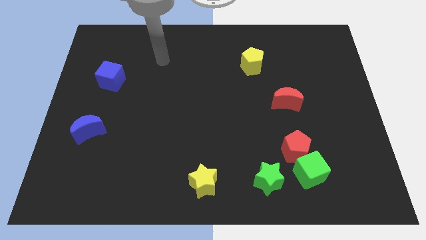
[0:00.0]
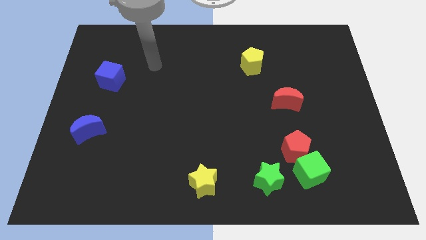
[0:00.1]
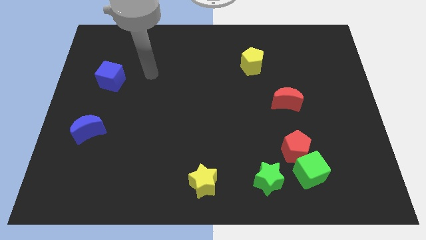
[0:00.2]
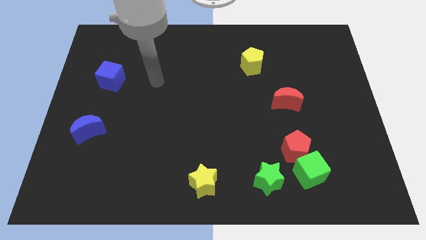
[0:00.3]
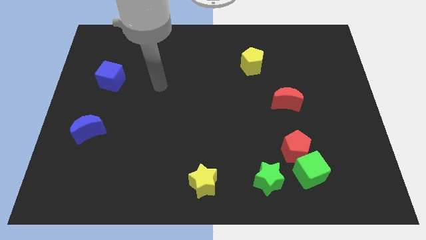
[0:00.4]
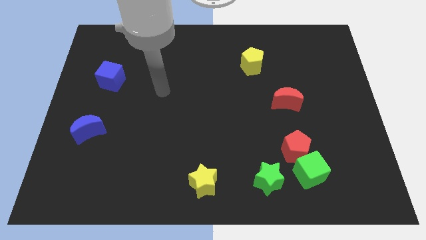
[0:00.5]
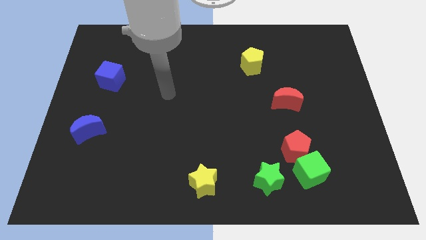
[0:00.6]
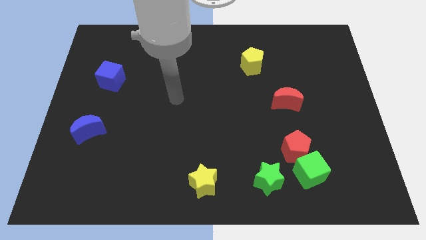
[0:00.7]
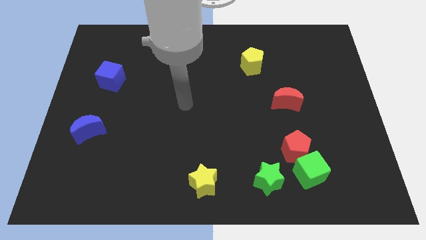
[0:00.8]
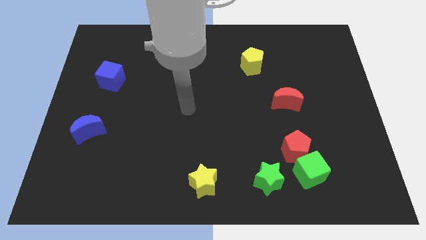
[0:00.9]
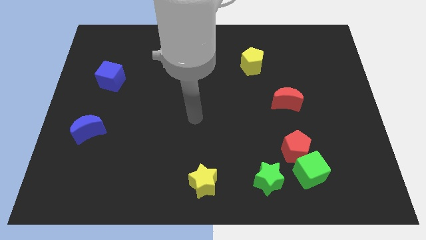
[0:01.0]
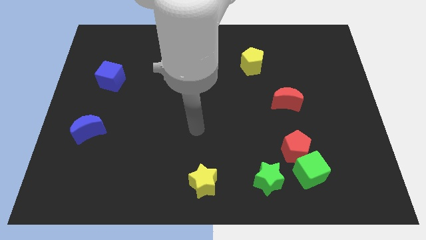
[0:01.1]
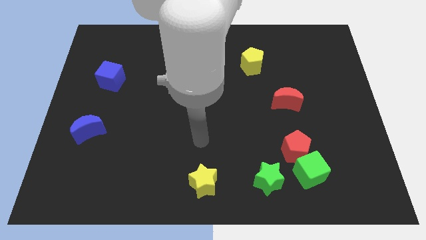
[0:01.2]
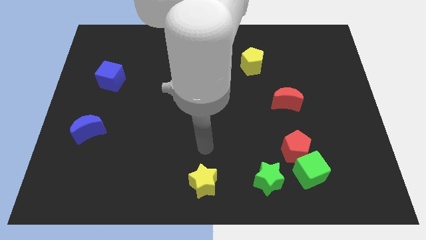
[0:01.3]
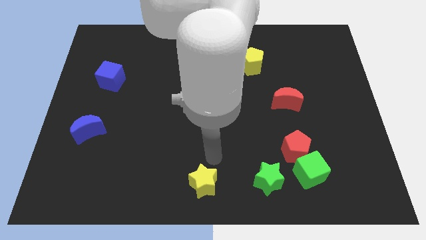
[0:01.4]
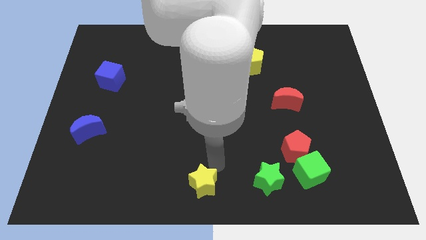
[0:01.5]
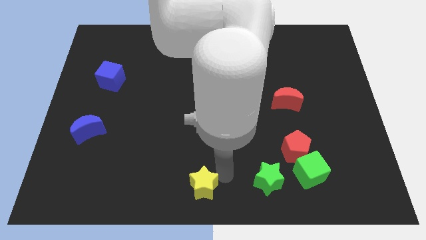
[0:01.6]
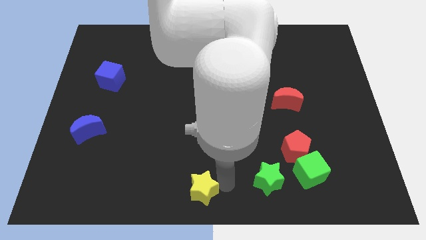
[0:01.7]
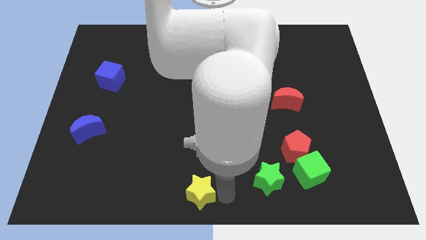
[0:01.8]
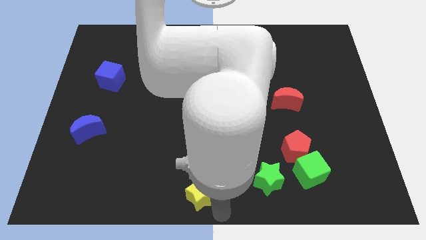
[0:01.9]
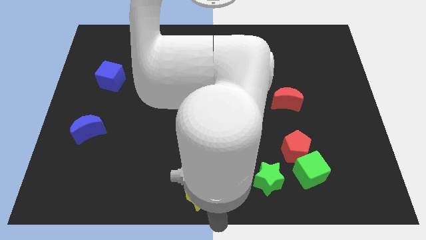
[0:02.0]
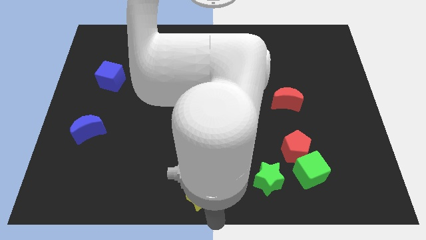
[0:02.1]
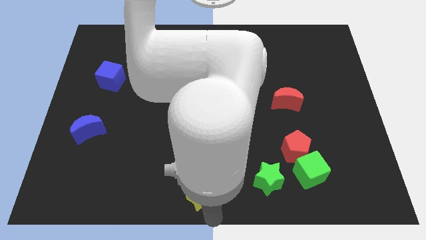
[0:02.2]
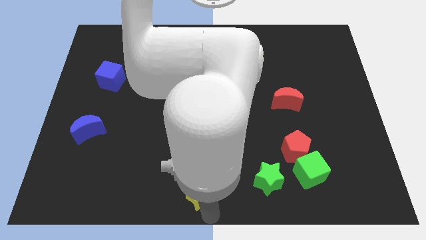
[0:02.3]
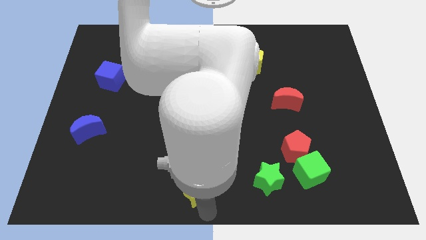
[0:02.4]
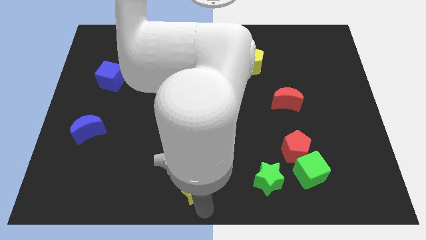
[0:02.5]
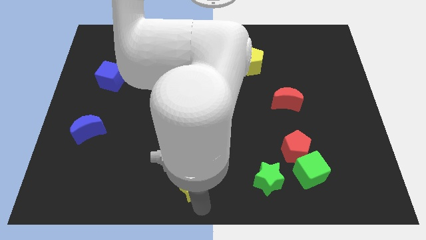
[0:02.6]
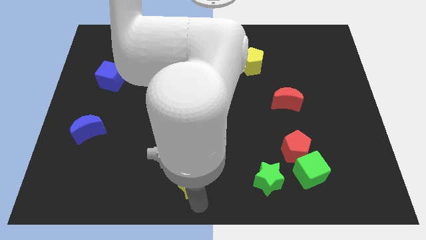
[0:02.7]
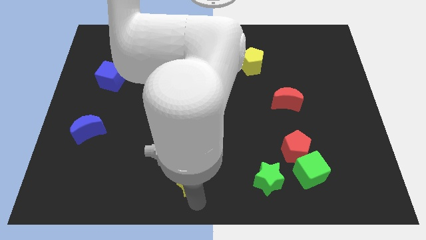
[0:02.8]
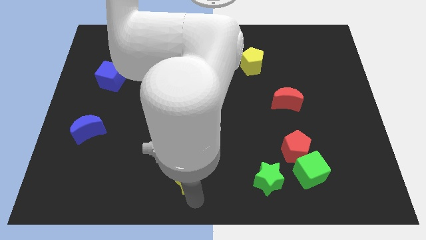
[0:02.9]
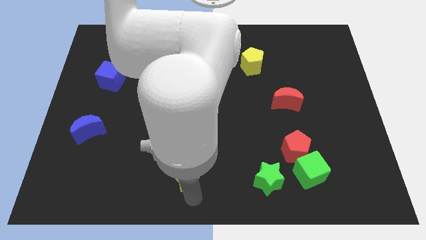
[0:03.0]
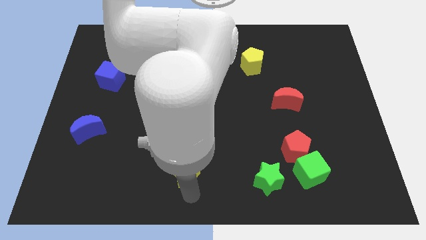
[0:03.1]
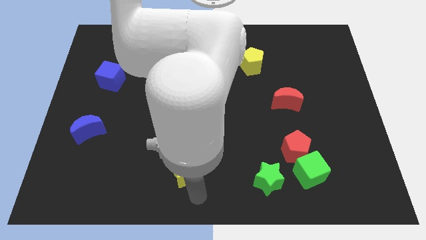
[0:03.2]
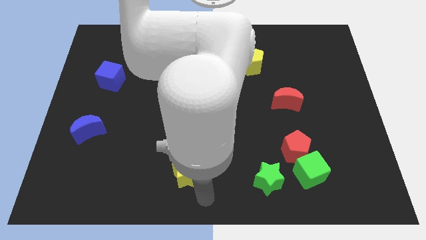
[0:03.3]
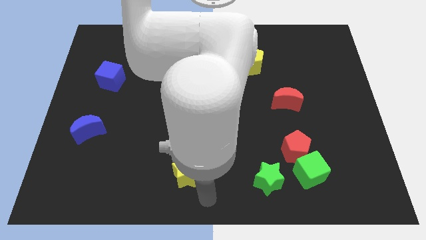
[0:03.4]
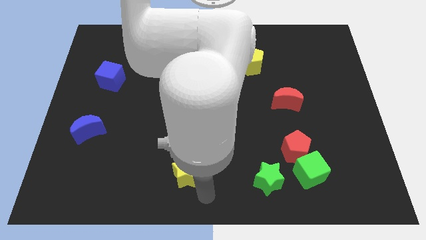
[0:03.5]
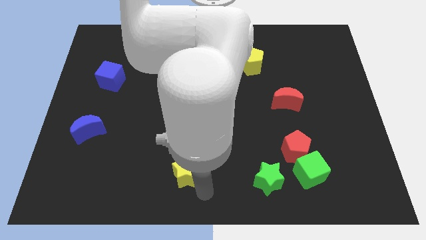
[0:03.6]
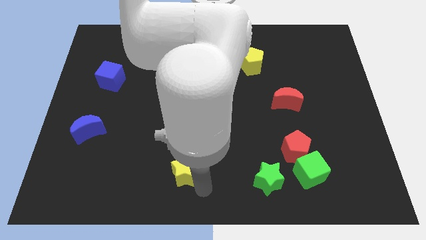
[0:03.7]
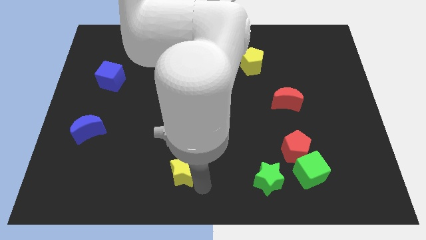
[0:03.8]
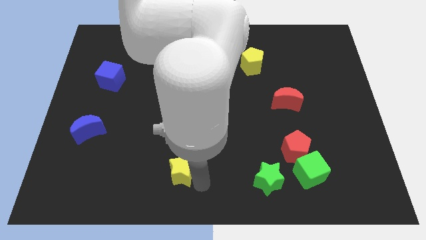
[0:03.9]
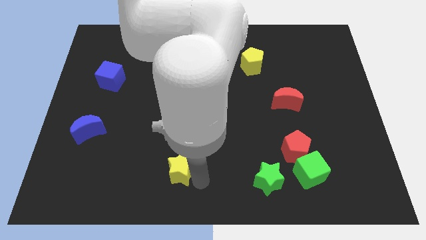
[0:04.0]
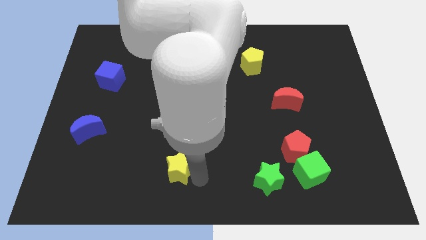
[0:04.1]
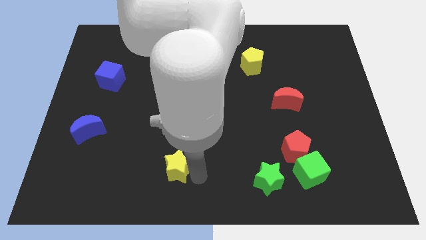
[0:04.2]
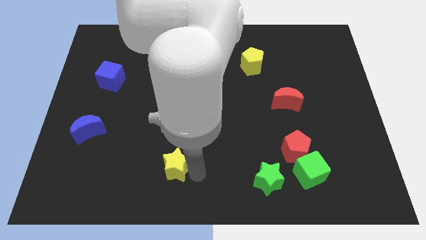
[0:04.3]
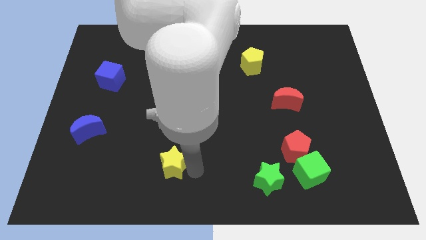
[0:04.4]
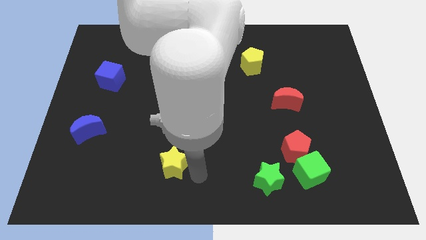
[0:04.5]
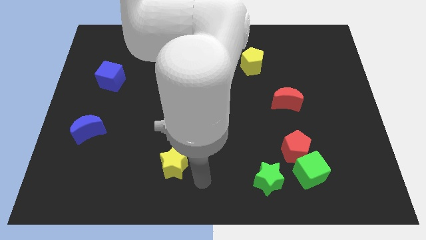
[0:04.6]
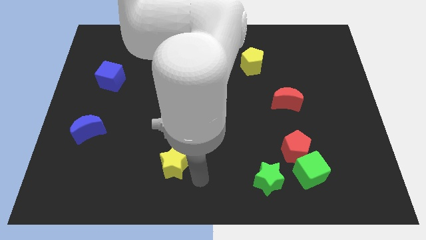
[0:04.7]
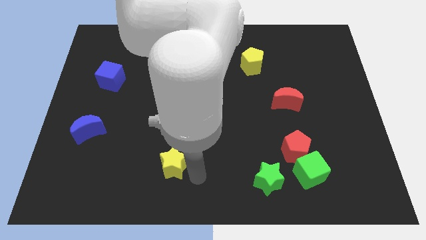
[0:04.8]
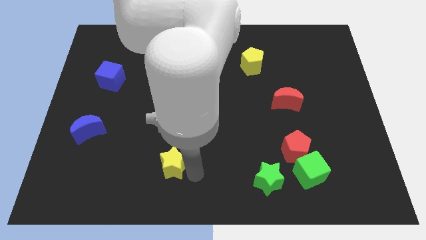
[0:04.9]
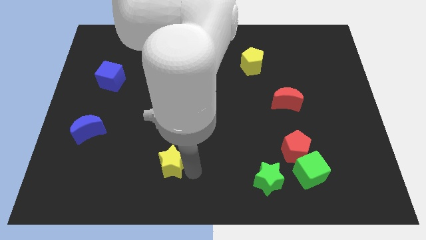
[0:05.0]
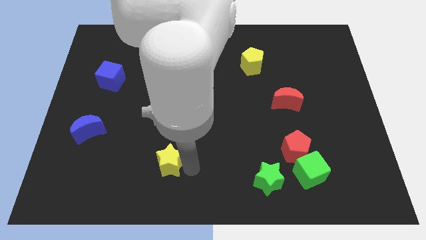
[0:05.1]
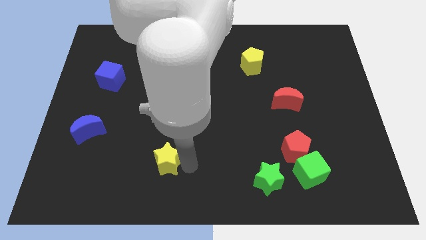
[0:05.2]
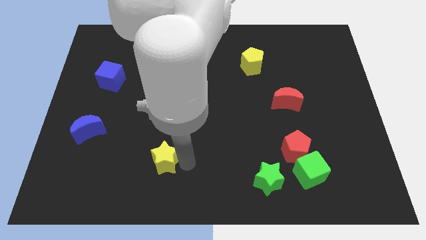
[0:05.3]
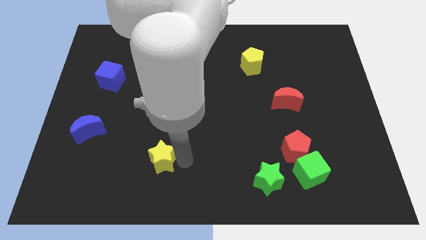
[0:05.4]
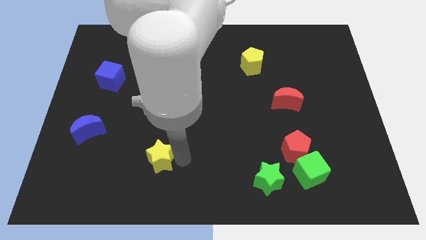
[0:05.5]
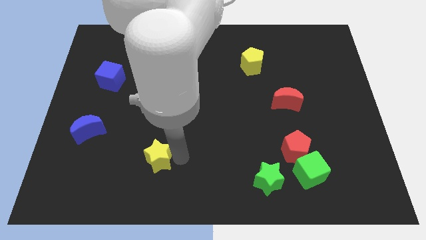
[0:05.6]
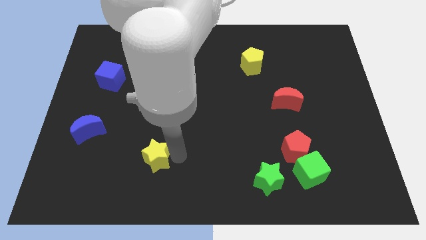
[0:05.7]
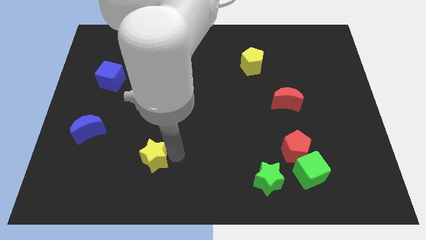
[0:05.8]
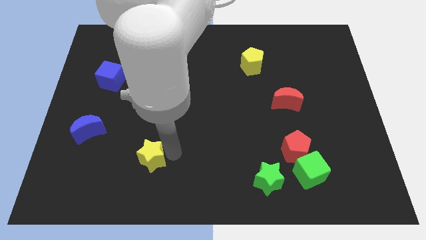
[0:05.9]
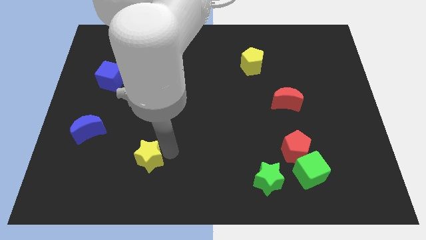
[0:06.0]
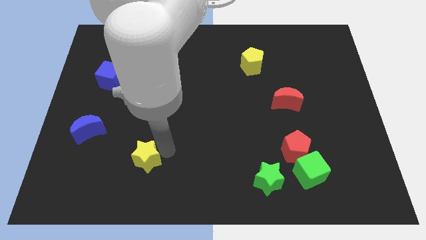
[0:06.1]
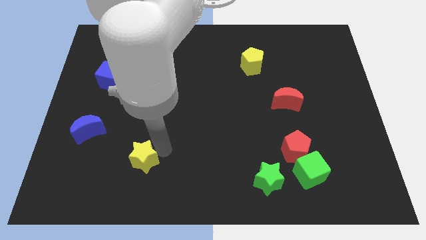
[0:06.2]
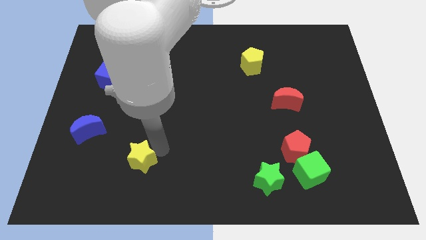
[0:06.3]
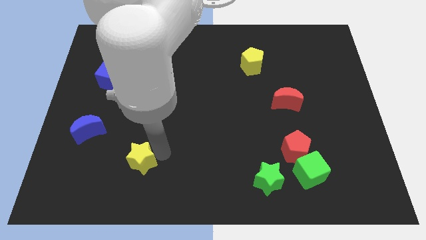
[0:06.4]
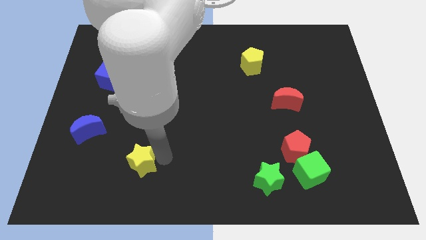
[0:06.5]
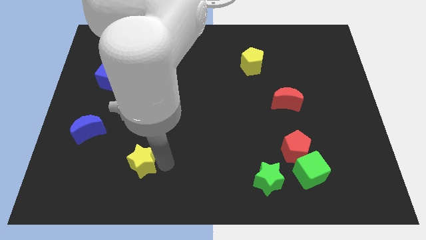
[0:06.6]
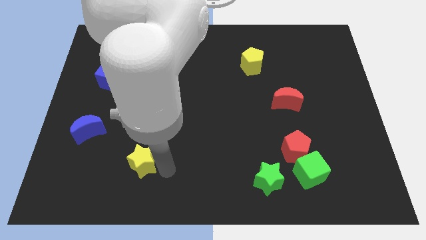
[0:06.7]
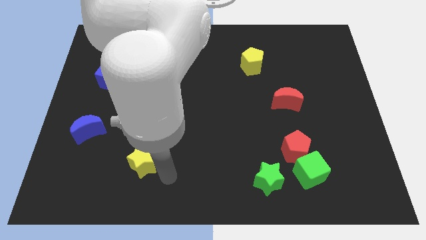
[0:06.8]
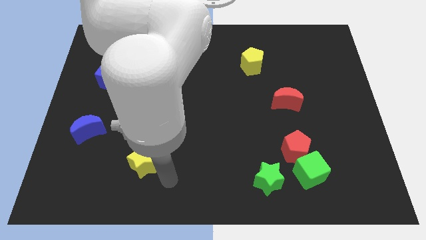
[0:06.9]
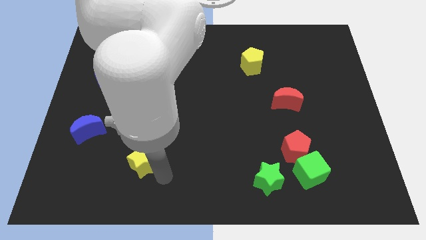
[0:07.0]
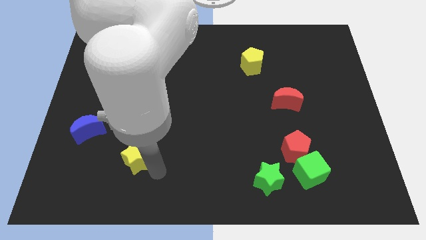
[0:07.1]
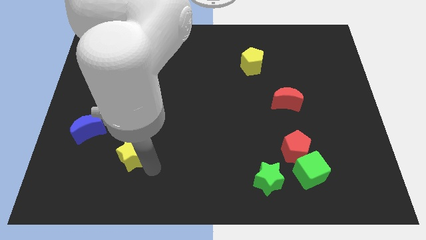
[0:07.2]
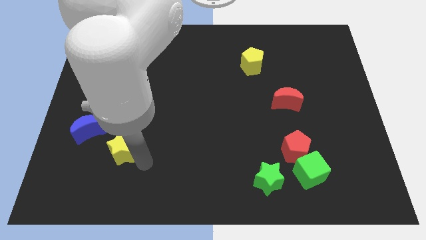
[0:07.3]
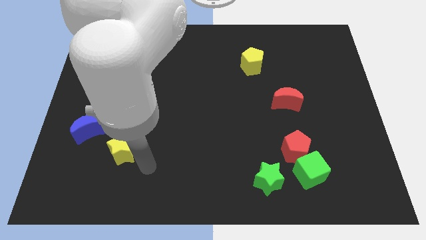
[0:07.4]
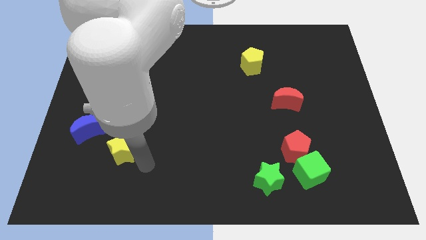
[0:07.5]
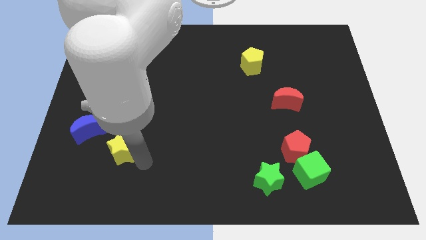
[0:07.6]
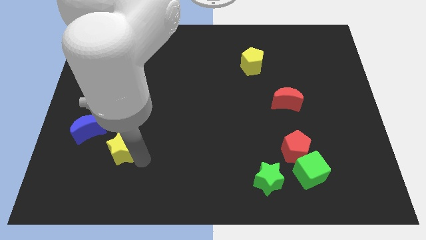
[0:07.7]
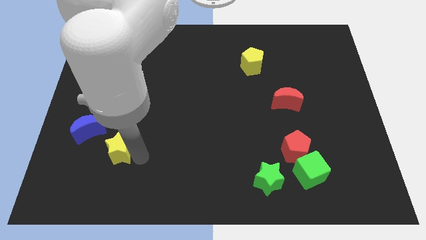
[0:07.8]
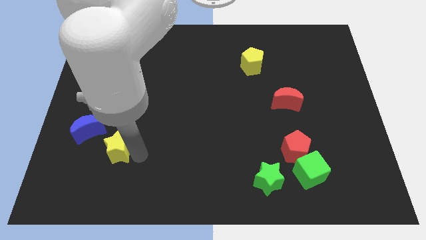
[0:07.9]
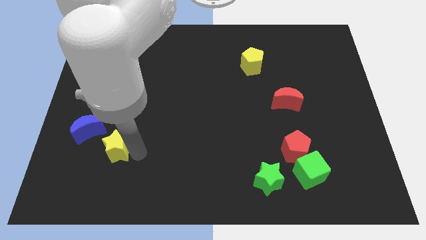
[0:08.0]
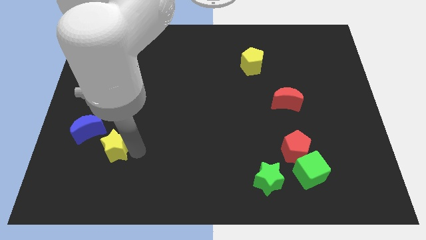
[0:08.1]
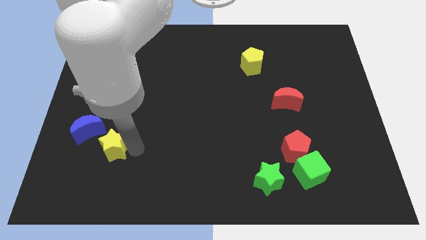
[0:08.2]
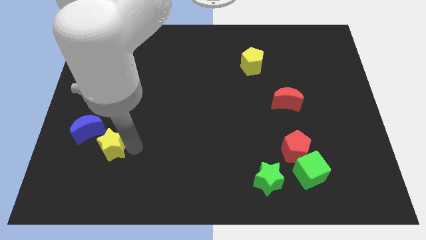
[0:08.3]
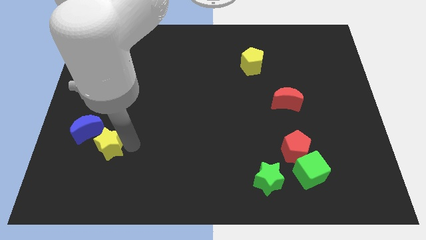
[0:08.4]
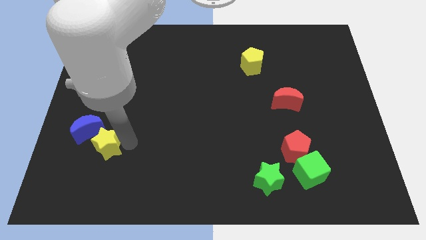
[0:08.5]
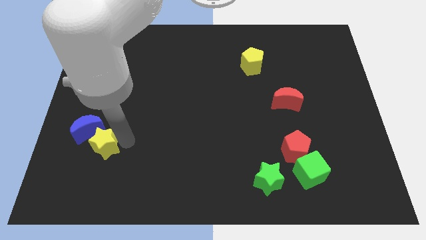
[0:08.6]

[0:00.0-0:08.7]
push the yellow star to the blue moon
